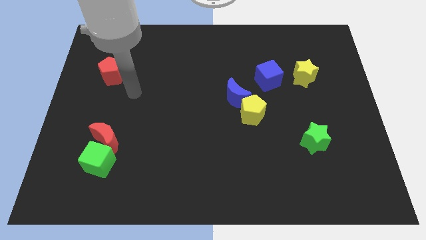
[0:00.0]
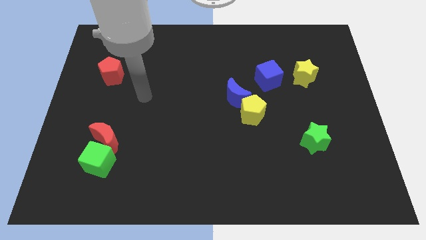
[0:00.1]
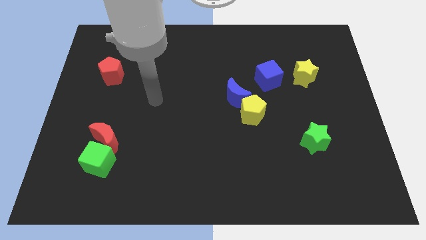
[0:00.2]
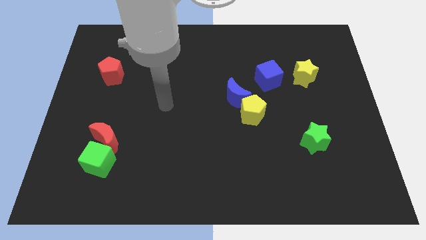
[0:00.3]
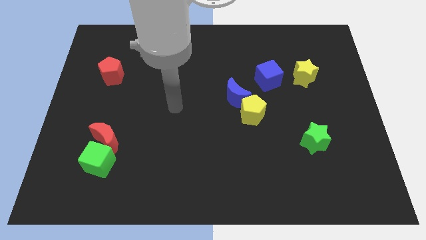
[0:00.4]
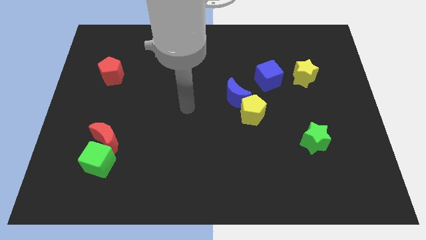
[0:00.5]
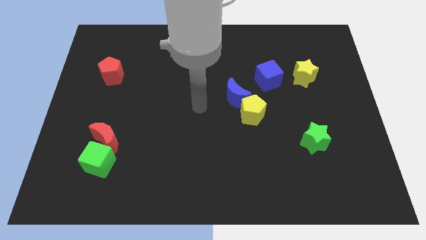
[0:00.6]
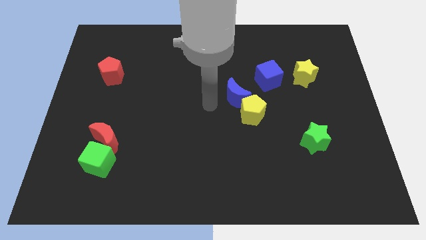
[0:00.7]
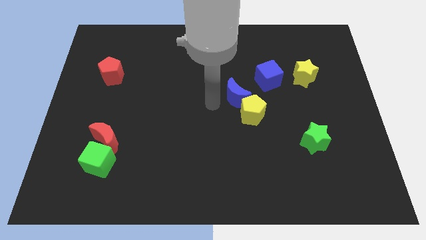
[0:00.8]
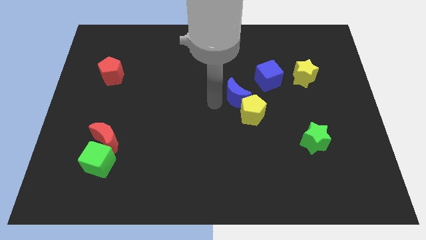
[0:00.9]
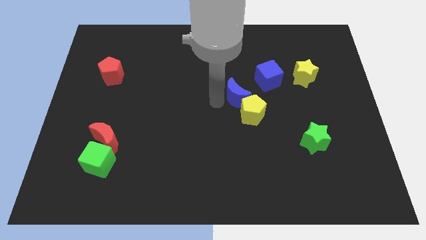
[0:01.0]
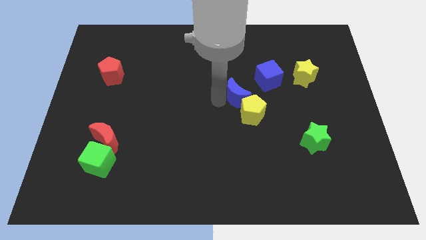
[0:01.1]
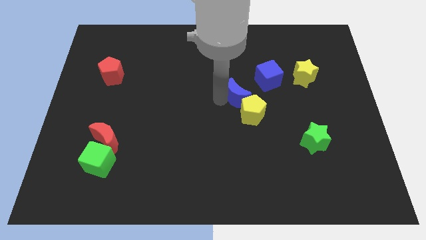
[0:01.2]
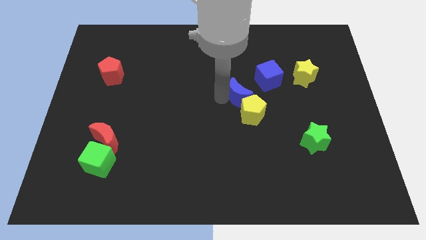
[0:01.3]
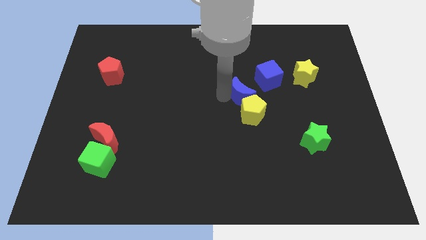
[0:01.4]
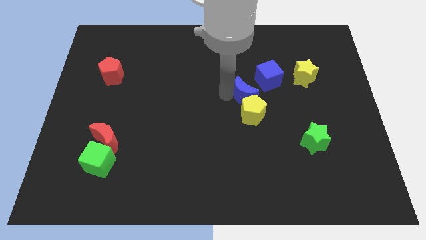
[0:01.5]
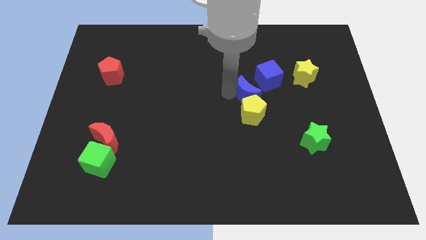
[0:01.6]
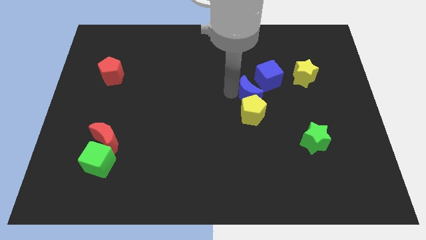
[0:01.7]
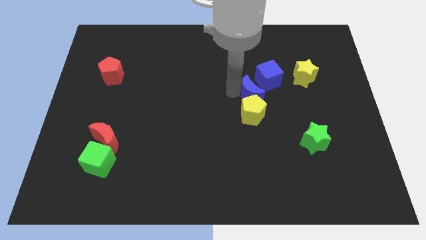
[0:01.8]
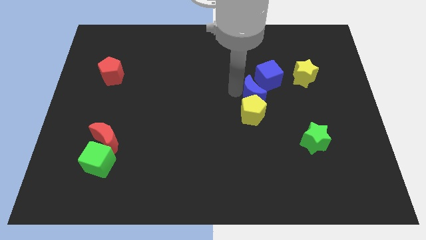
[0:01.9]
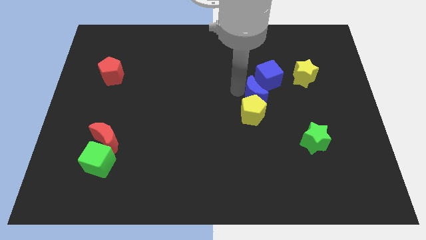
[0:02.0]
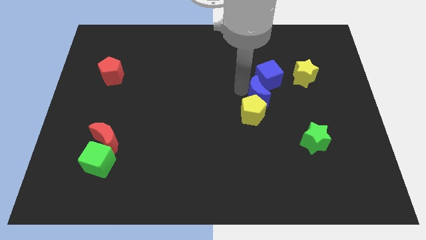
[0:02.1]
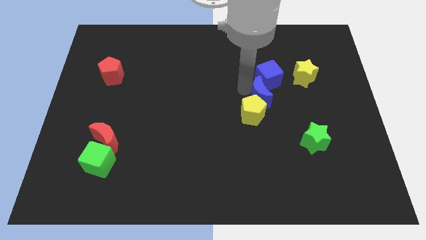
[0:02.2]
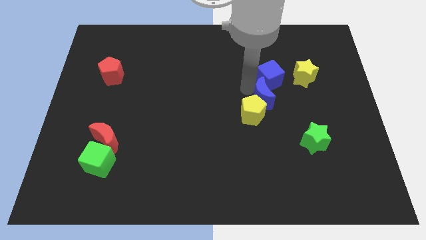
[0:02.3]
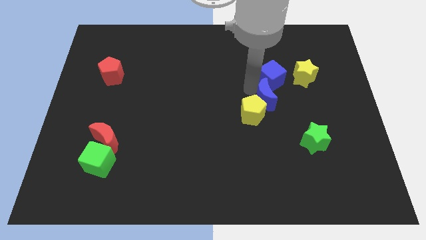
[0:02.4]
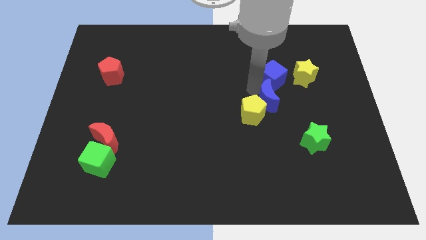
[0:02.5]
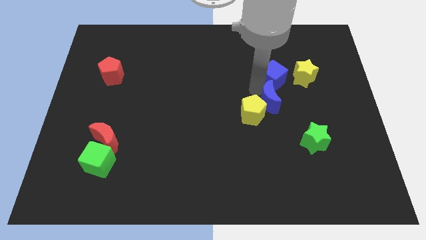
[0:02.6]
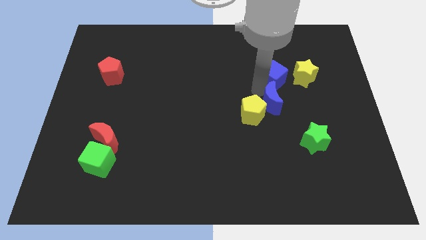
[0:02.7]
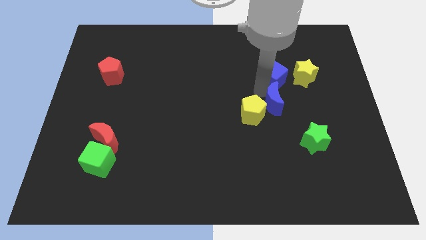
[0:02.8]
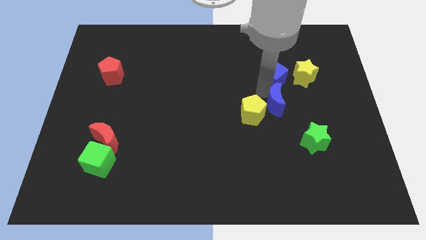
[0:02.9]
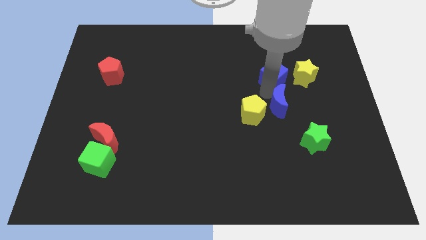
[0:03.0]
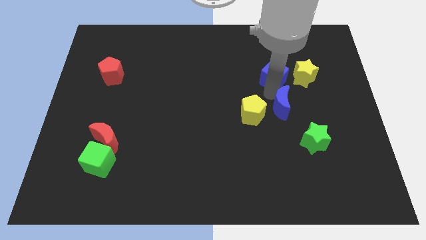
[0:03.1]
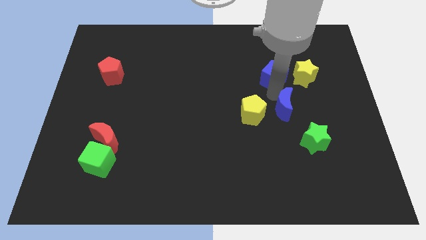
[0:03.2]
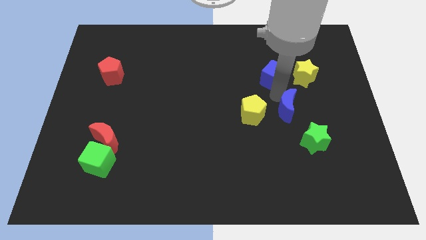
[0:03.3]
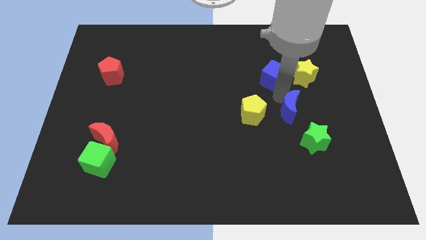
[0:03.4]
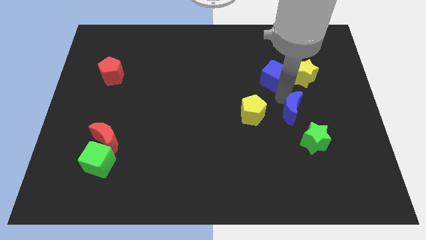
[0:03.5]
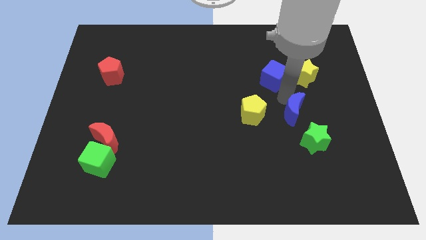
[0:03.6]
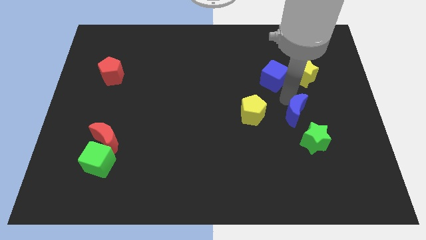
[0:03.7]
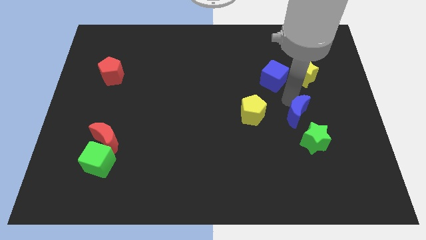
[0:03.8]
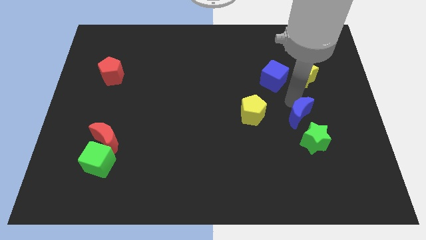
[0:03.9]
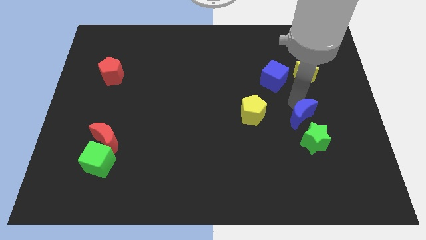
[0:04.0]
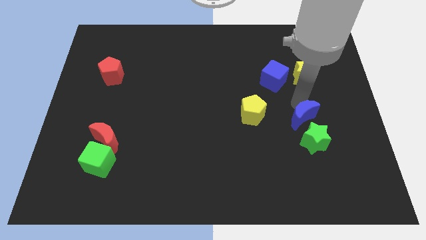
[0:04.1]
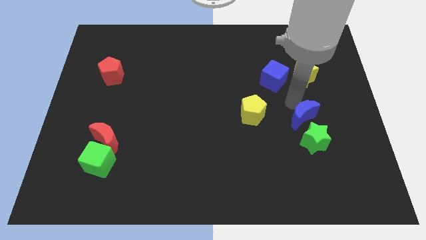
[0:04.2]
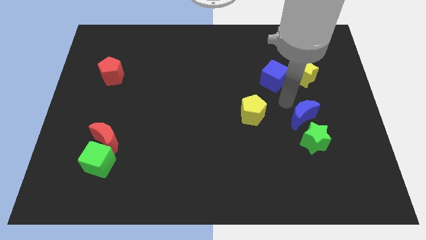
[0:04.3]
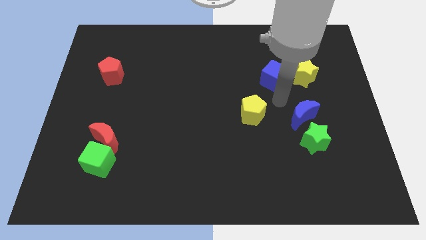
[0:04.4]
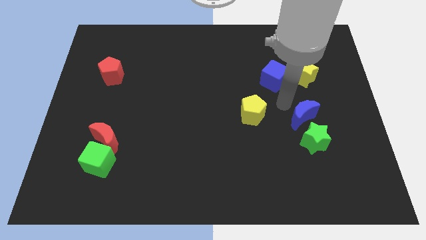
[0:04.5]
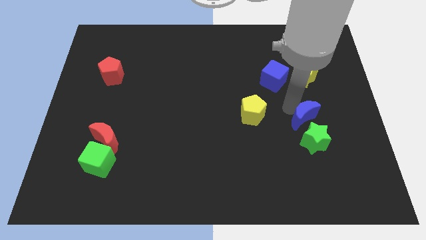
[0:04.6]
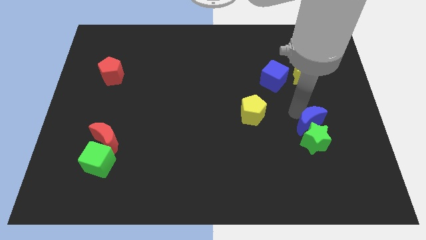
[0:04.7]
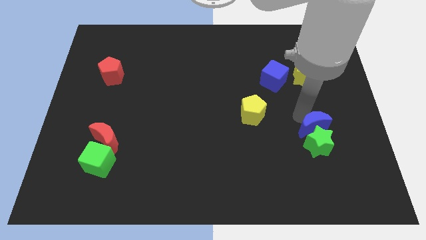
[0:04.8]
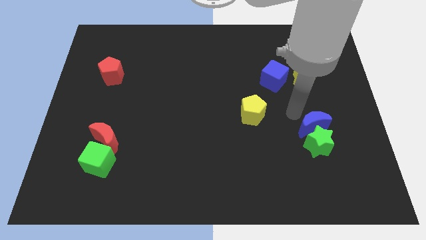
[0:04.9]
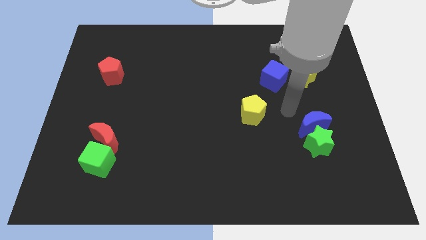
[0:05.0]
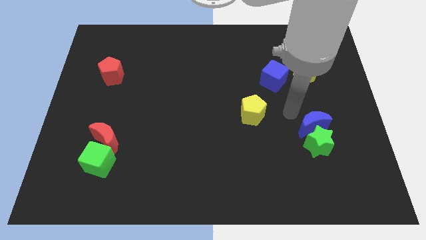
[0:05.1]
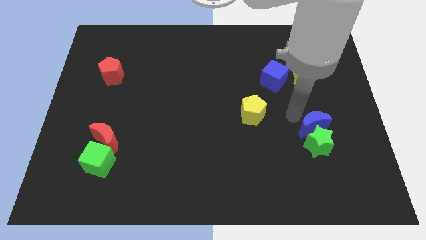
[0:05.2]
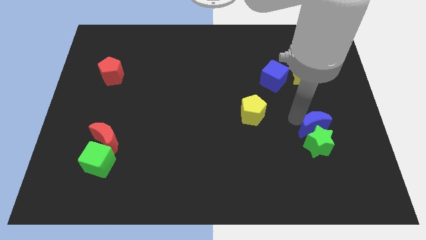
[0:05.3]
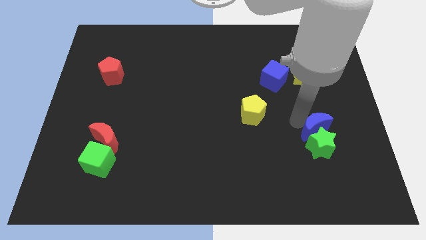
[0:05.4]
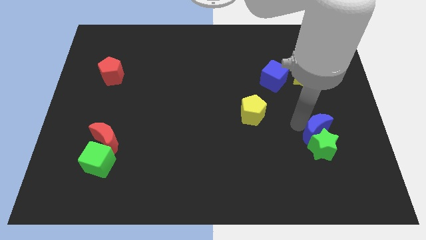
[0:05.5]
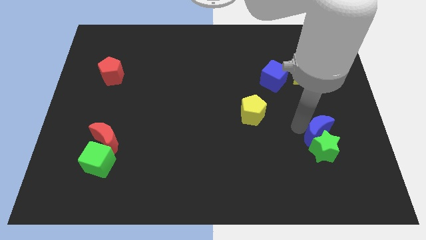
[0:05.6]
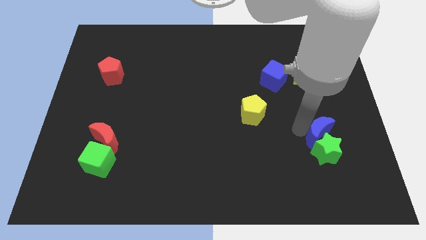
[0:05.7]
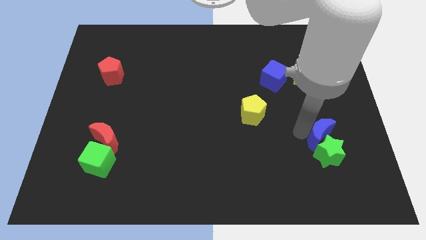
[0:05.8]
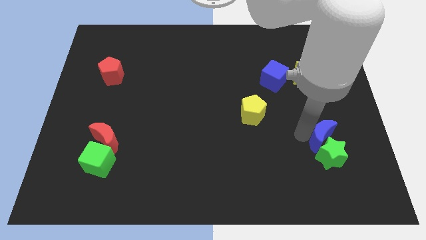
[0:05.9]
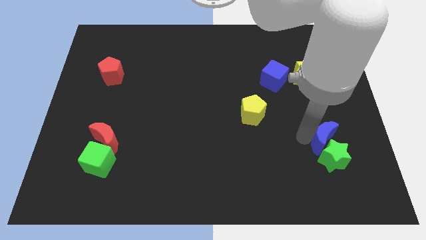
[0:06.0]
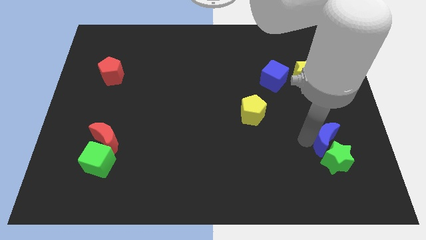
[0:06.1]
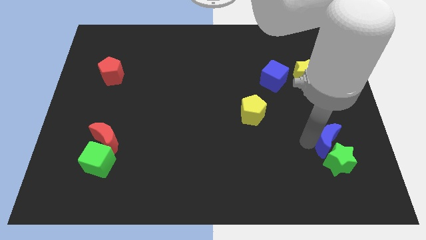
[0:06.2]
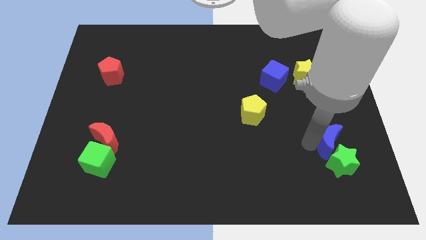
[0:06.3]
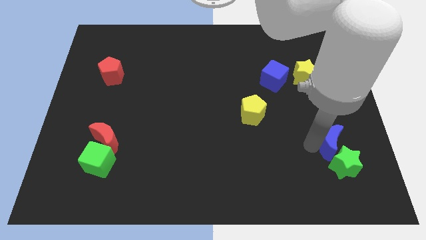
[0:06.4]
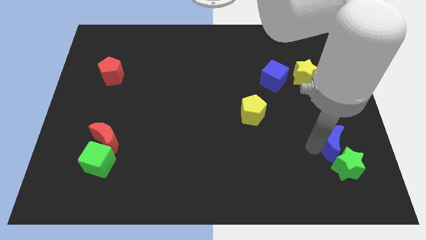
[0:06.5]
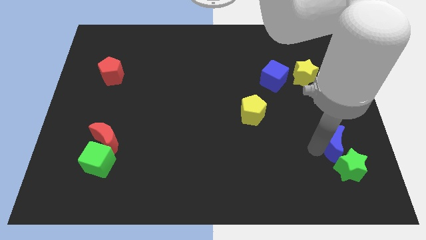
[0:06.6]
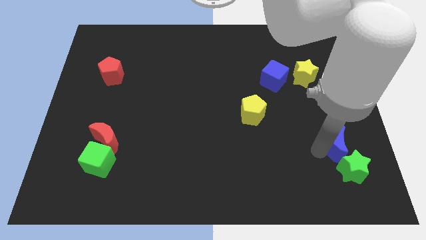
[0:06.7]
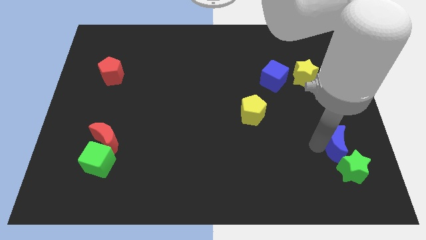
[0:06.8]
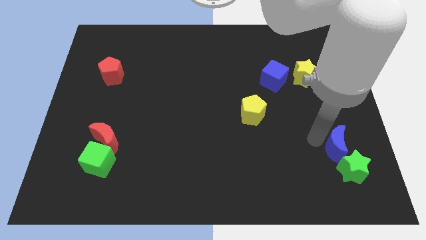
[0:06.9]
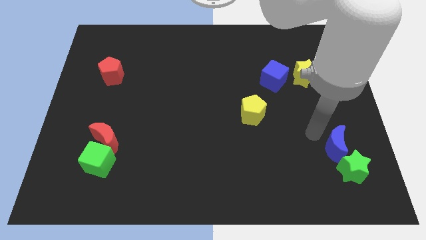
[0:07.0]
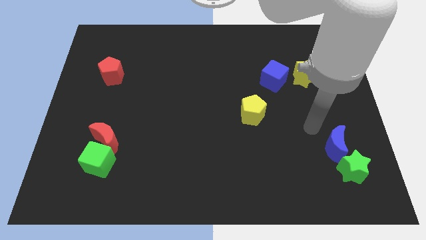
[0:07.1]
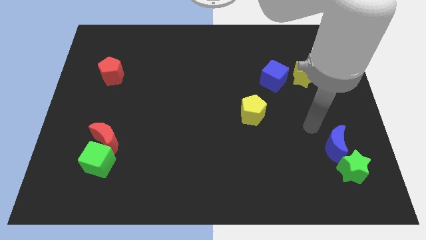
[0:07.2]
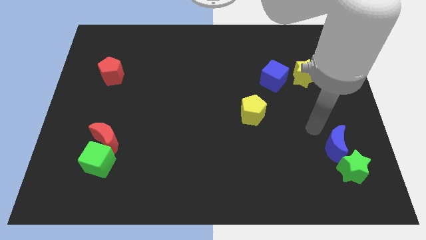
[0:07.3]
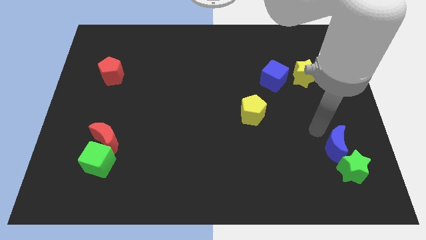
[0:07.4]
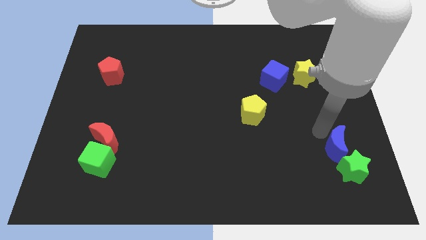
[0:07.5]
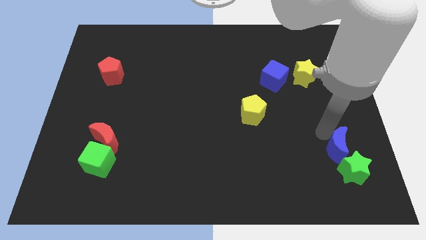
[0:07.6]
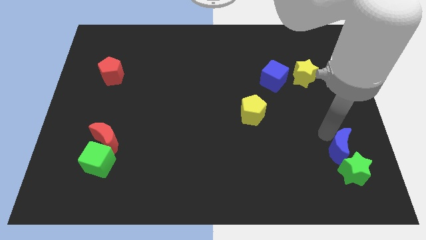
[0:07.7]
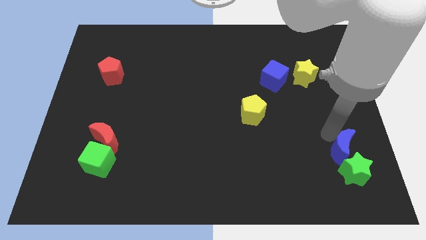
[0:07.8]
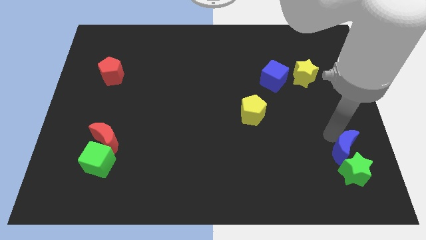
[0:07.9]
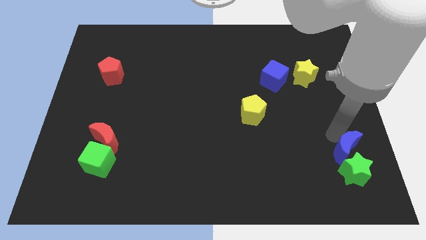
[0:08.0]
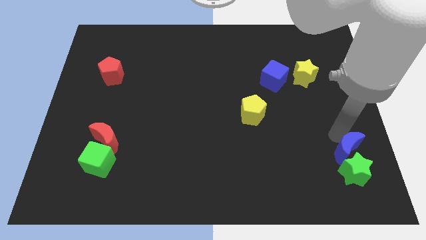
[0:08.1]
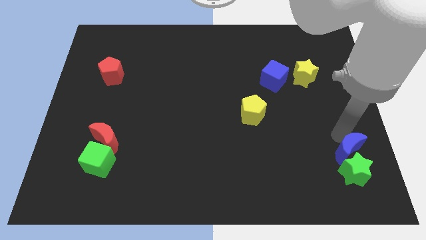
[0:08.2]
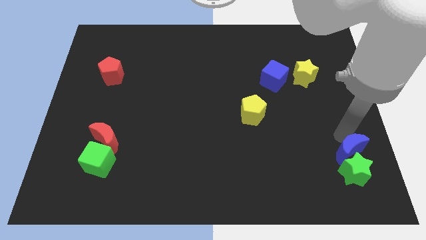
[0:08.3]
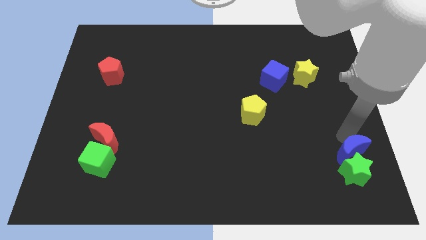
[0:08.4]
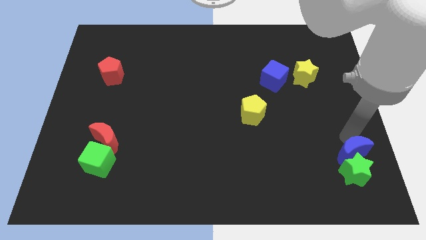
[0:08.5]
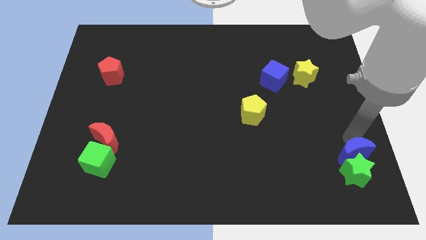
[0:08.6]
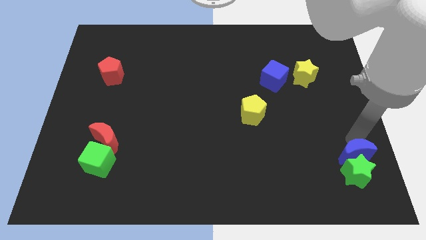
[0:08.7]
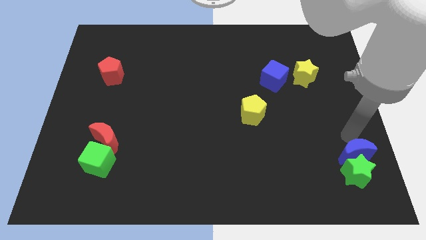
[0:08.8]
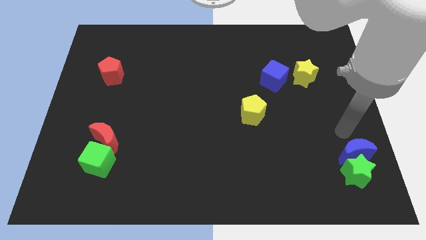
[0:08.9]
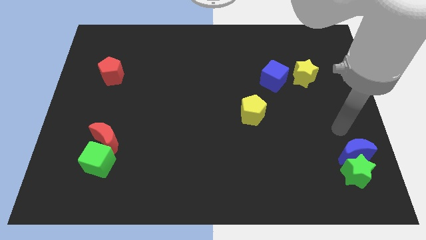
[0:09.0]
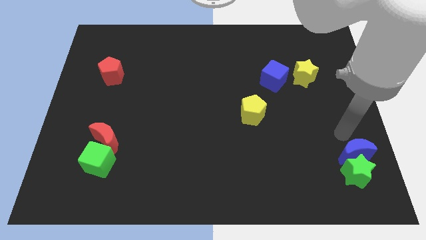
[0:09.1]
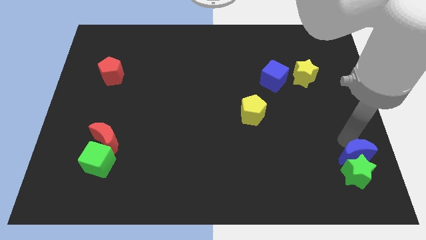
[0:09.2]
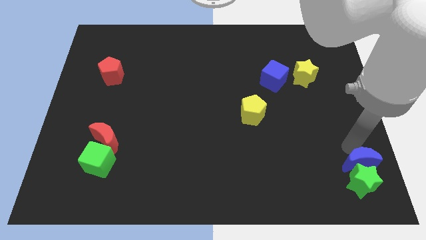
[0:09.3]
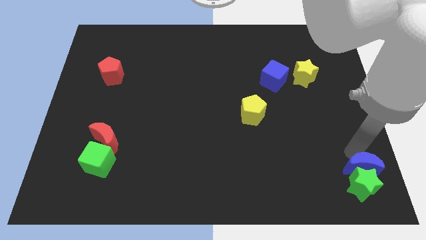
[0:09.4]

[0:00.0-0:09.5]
move the blue moon to the bottom right
